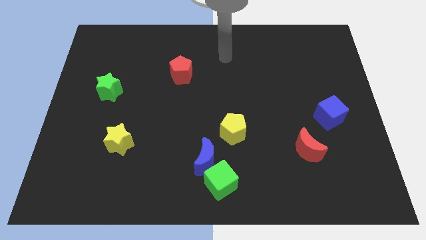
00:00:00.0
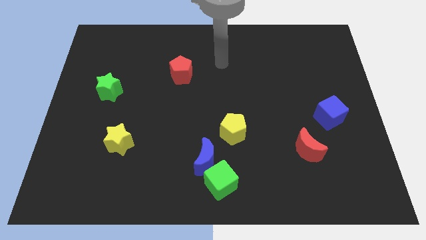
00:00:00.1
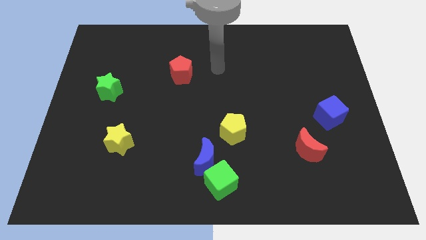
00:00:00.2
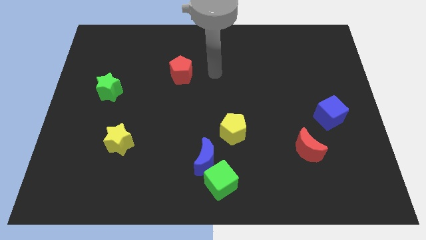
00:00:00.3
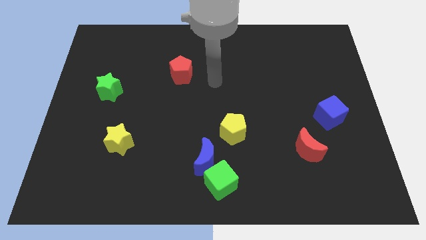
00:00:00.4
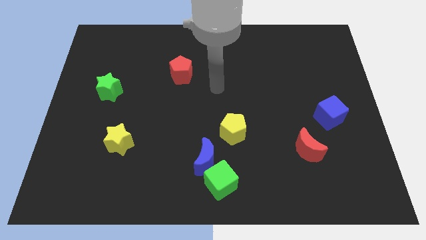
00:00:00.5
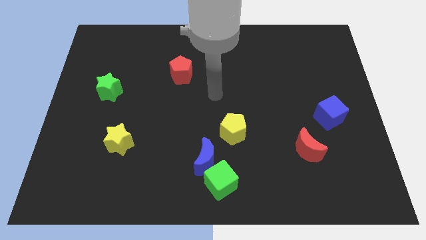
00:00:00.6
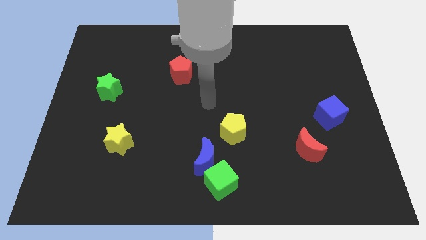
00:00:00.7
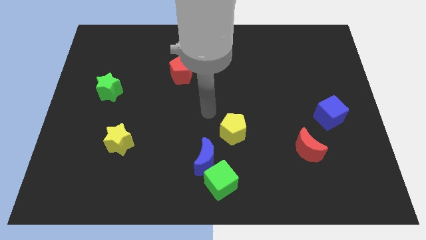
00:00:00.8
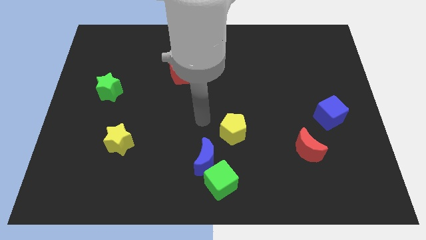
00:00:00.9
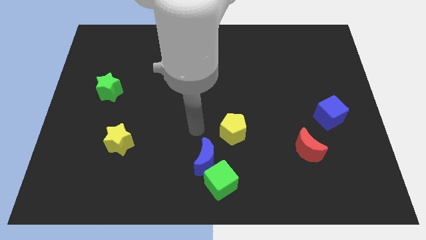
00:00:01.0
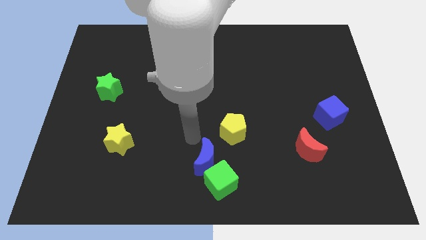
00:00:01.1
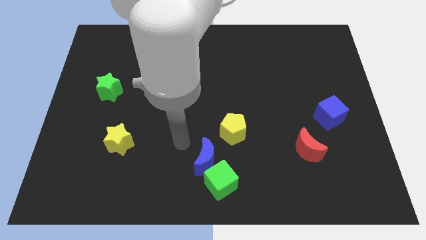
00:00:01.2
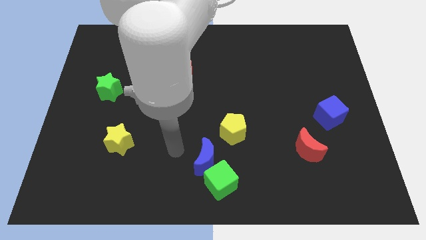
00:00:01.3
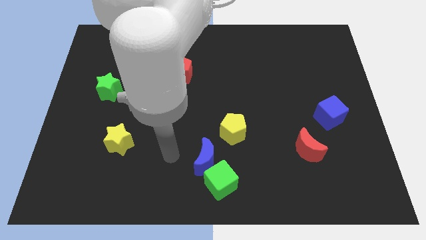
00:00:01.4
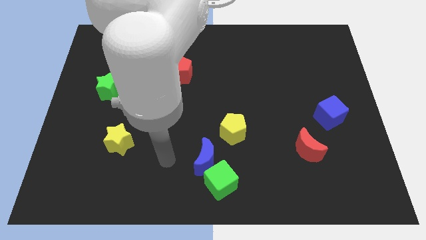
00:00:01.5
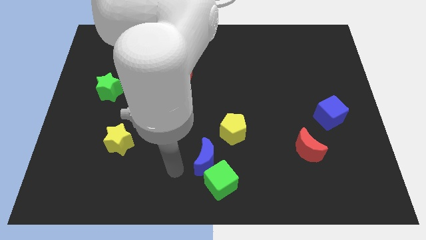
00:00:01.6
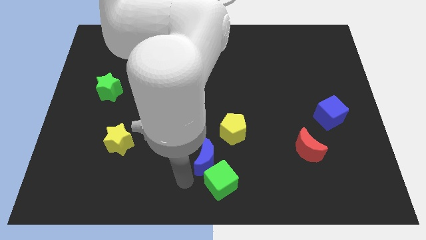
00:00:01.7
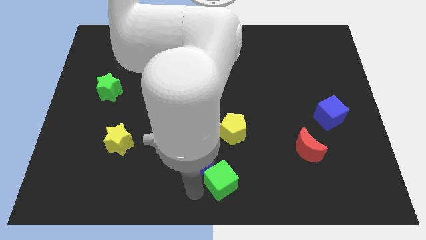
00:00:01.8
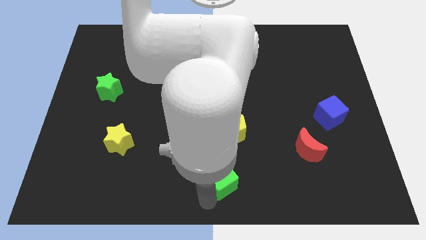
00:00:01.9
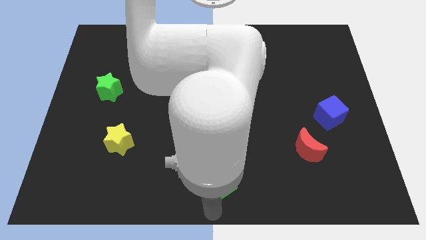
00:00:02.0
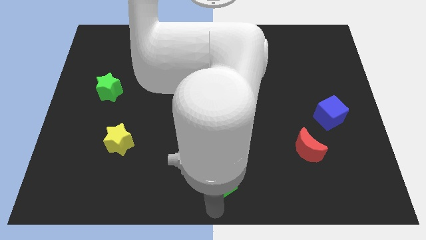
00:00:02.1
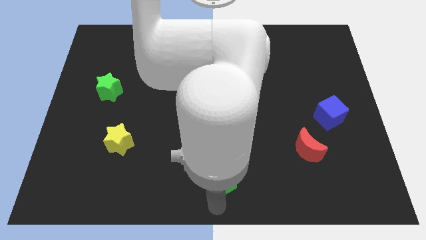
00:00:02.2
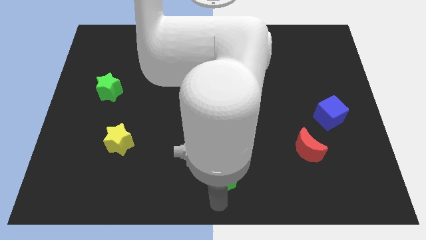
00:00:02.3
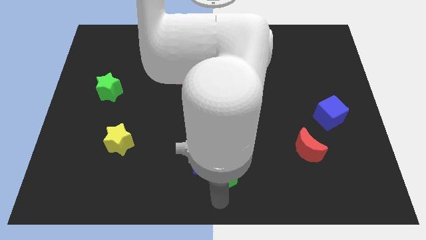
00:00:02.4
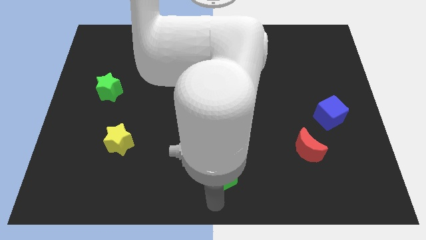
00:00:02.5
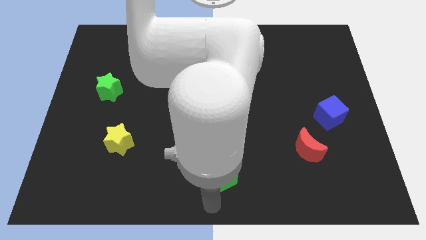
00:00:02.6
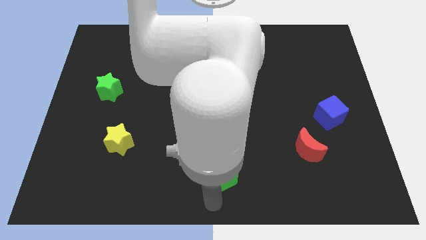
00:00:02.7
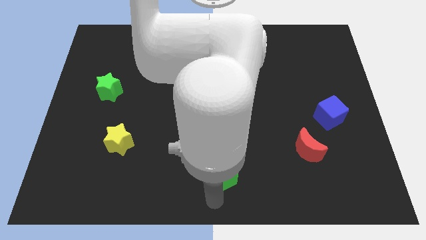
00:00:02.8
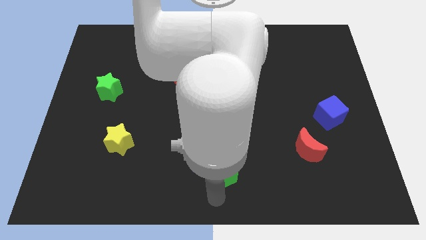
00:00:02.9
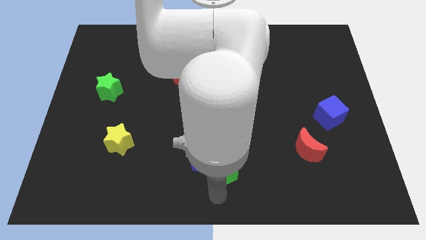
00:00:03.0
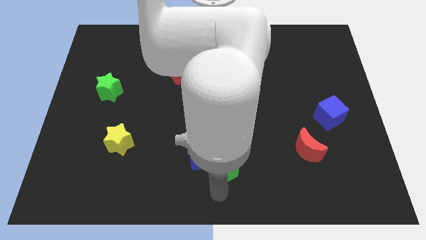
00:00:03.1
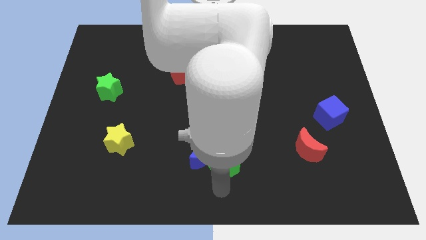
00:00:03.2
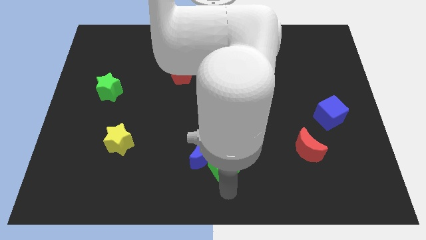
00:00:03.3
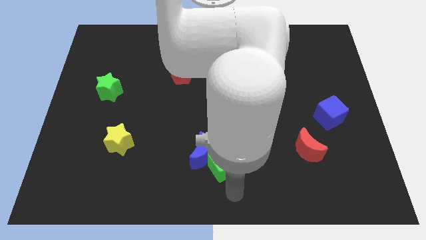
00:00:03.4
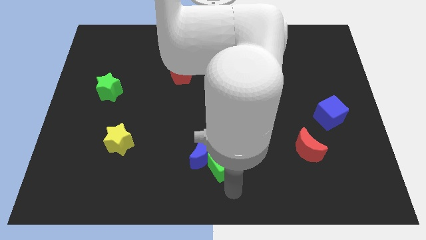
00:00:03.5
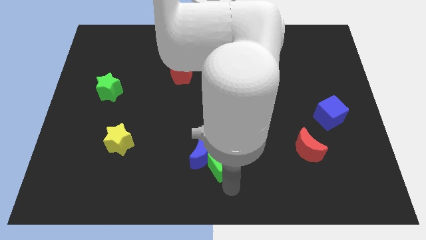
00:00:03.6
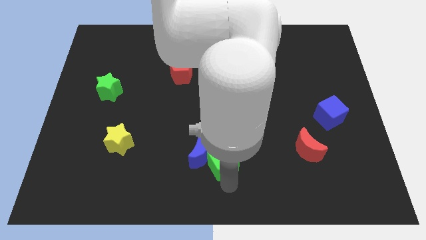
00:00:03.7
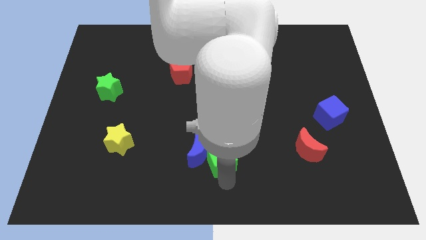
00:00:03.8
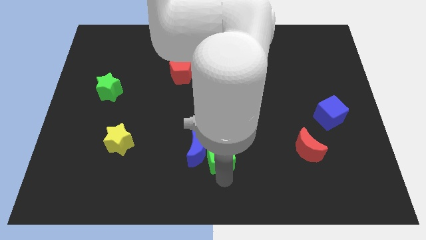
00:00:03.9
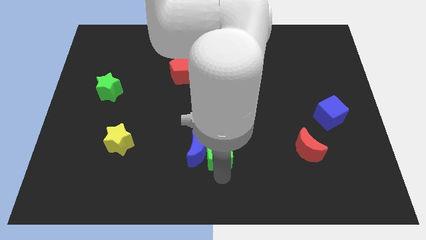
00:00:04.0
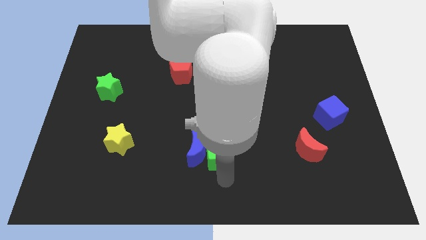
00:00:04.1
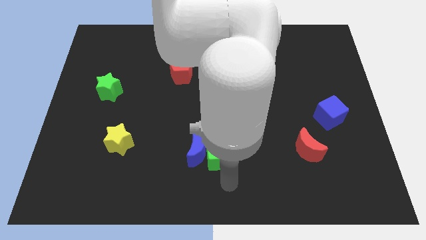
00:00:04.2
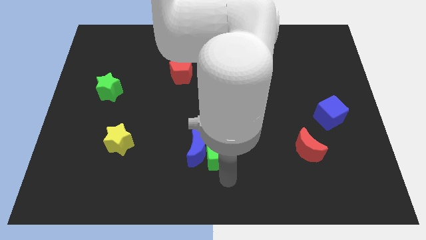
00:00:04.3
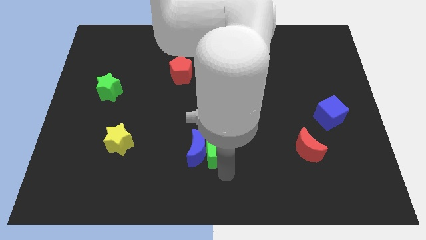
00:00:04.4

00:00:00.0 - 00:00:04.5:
move the green cube up a little

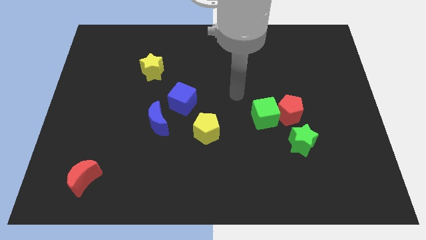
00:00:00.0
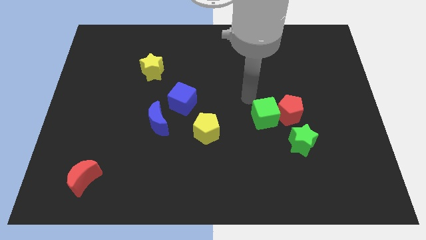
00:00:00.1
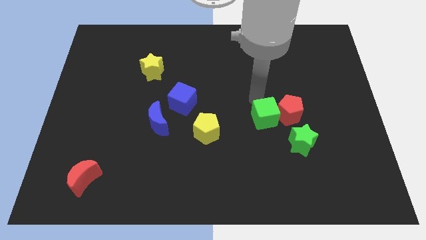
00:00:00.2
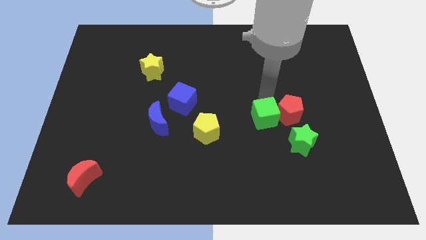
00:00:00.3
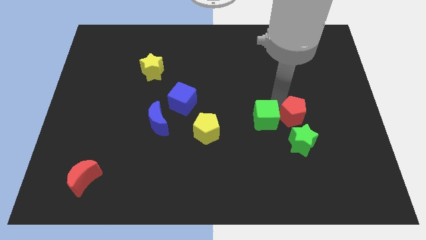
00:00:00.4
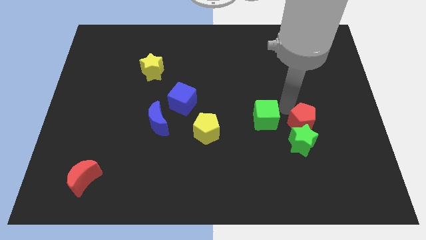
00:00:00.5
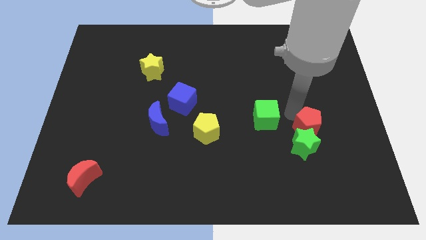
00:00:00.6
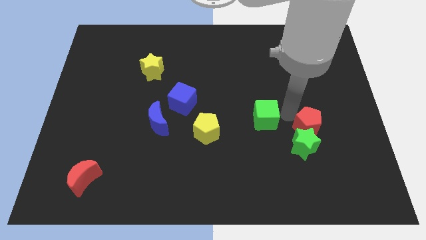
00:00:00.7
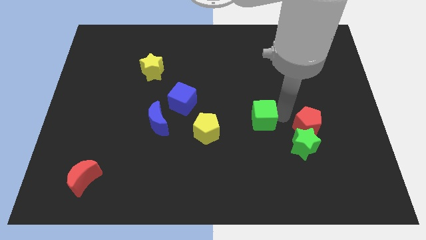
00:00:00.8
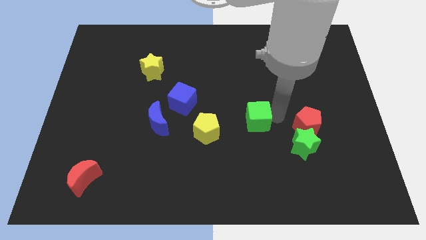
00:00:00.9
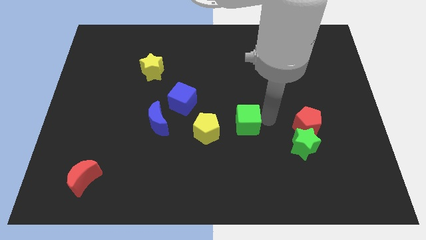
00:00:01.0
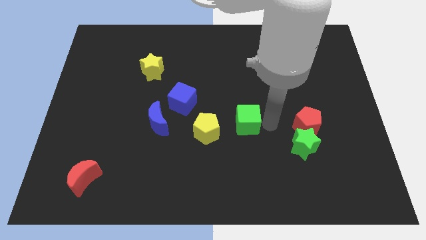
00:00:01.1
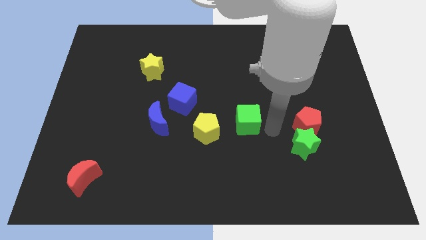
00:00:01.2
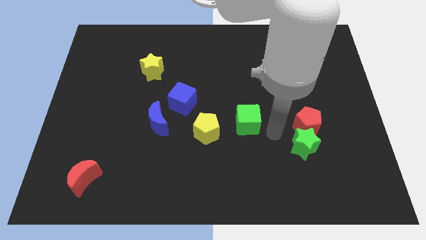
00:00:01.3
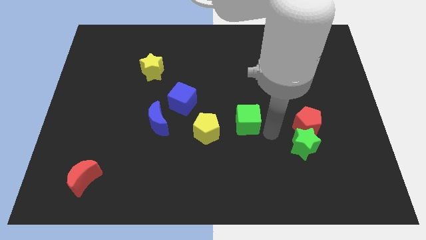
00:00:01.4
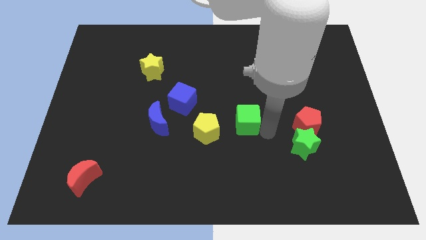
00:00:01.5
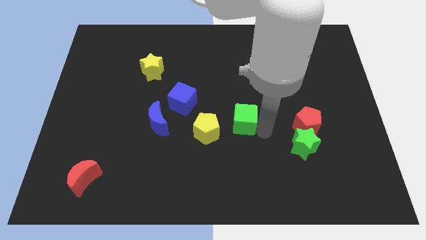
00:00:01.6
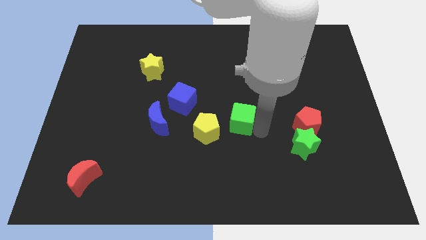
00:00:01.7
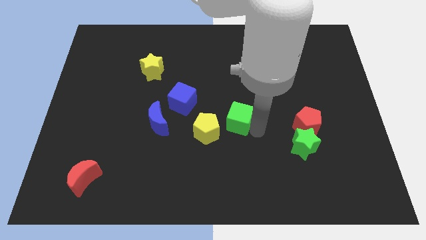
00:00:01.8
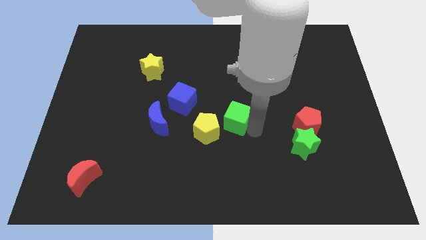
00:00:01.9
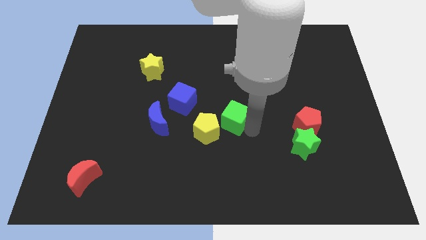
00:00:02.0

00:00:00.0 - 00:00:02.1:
slide the green cube a bit left

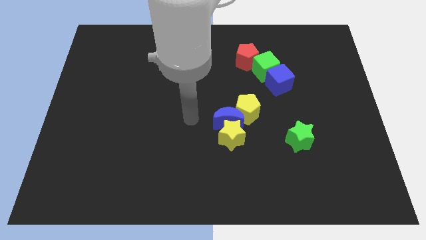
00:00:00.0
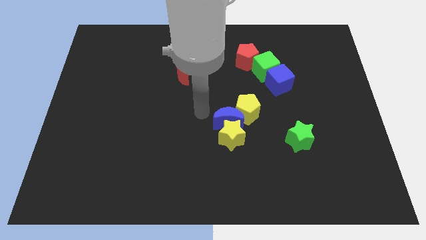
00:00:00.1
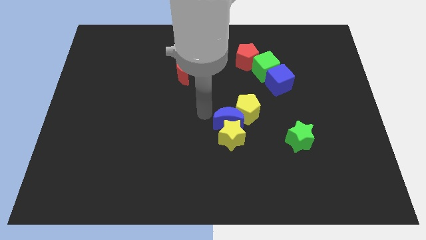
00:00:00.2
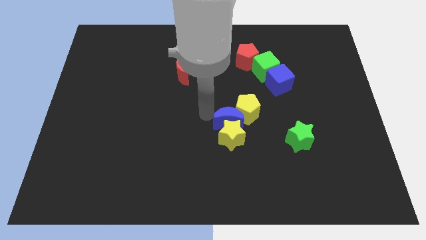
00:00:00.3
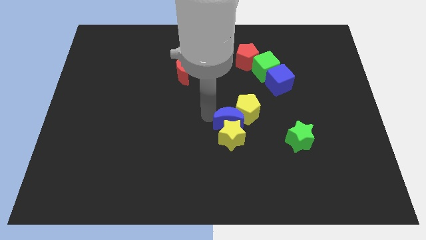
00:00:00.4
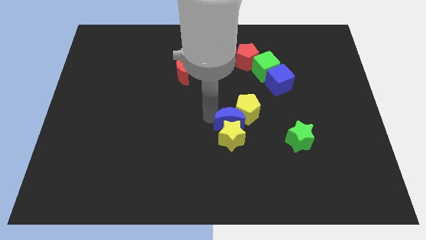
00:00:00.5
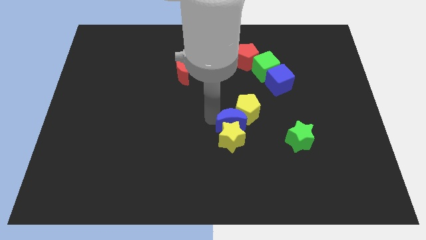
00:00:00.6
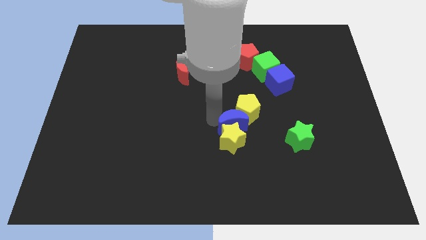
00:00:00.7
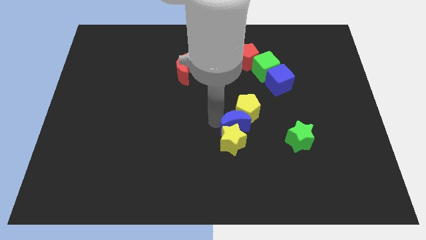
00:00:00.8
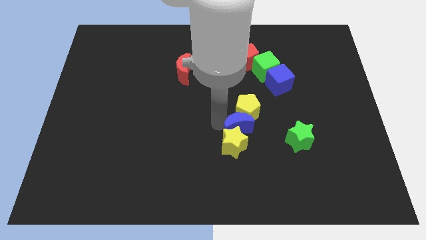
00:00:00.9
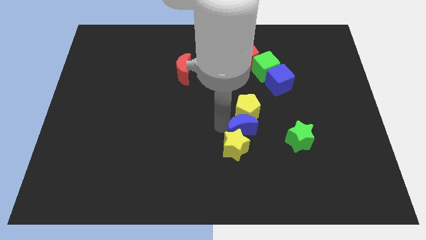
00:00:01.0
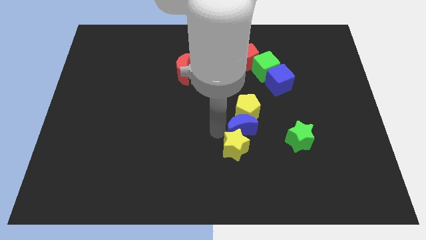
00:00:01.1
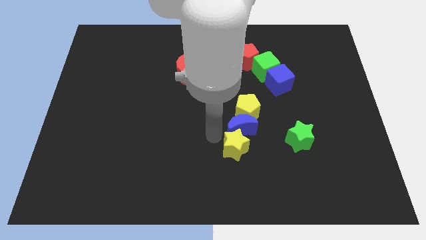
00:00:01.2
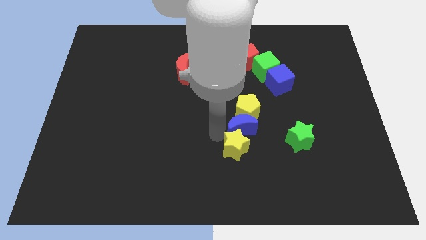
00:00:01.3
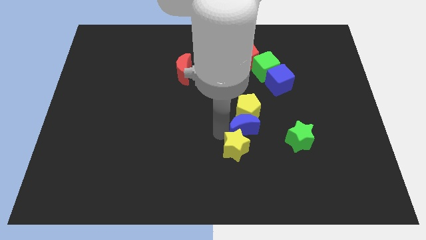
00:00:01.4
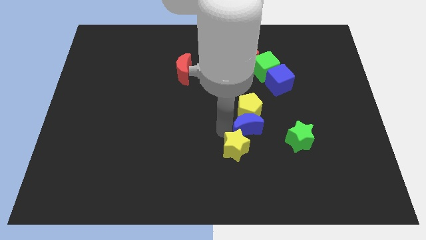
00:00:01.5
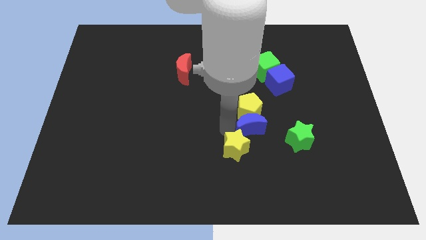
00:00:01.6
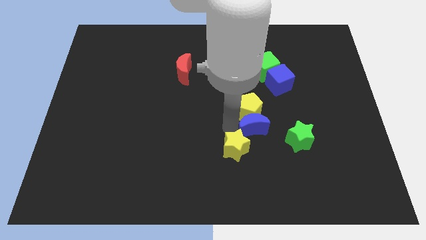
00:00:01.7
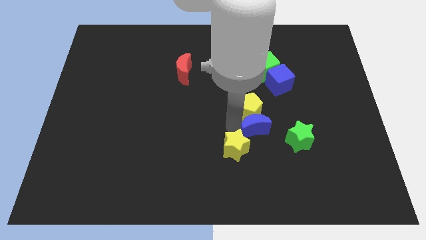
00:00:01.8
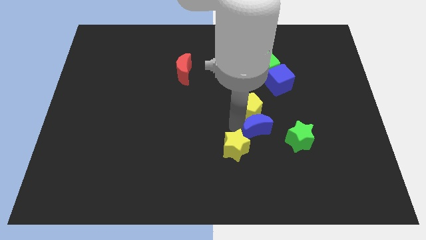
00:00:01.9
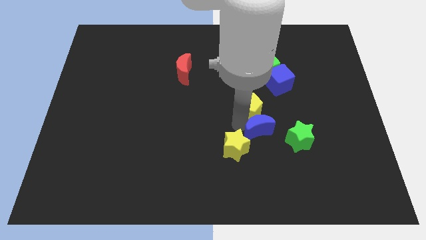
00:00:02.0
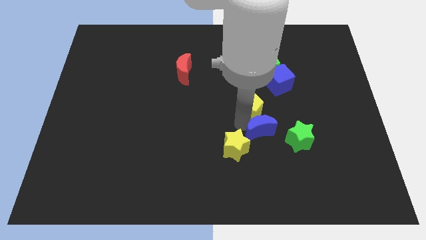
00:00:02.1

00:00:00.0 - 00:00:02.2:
move the blue moon to the right a bit
